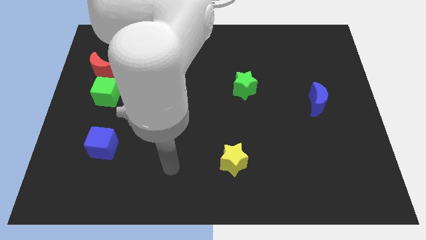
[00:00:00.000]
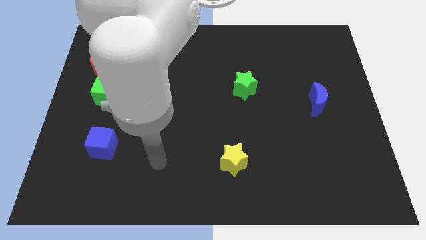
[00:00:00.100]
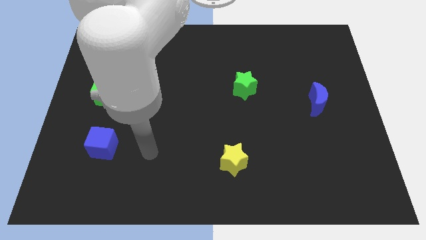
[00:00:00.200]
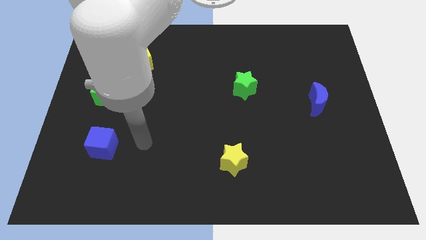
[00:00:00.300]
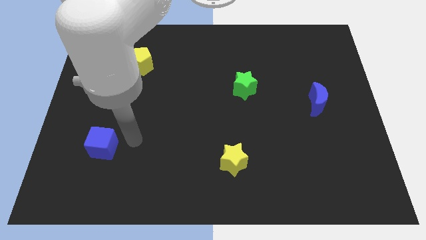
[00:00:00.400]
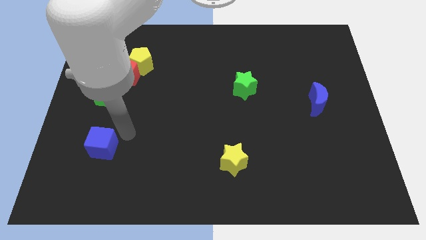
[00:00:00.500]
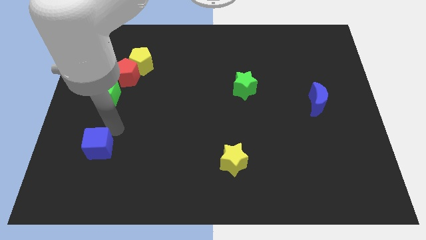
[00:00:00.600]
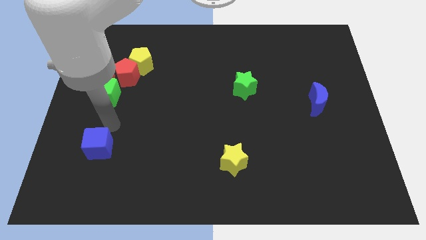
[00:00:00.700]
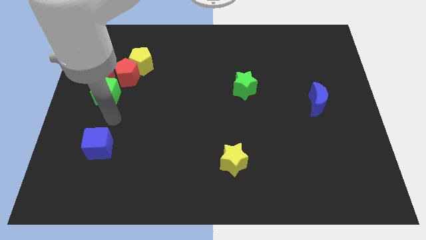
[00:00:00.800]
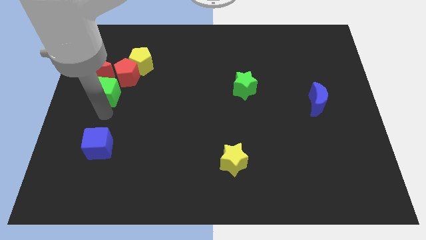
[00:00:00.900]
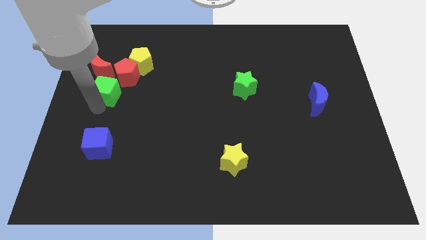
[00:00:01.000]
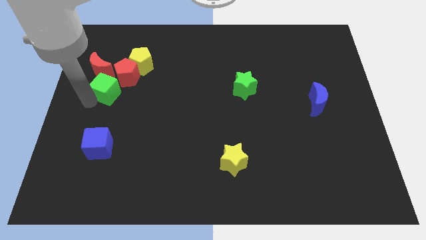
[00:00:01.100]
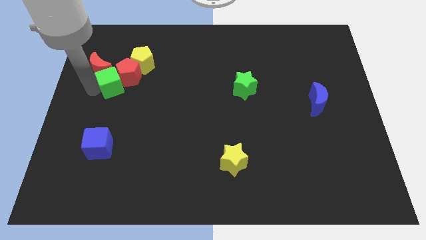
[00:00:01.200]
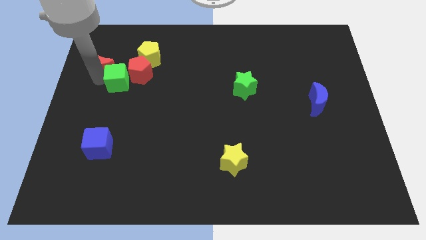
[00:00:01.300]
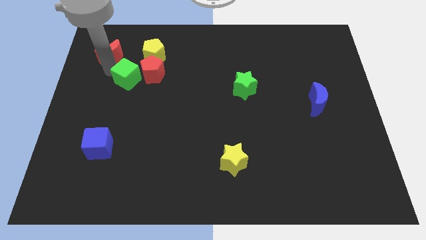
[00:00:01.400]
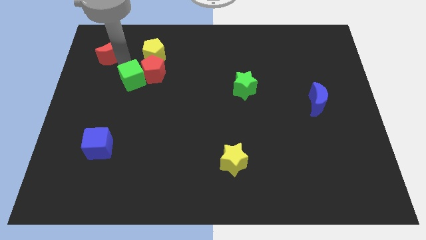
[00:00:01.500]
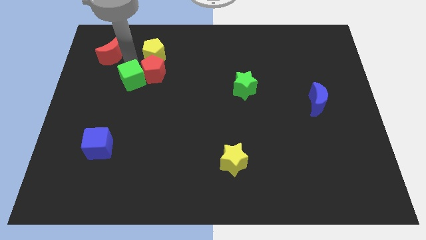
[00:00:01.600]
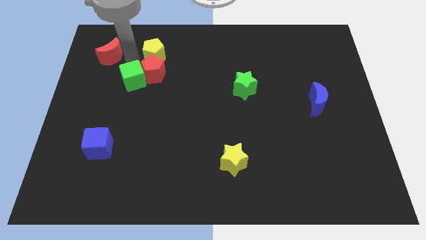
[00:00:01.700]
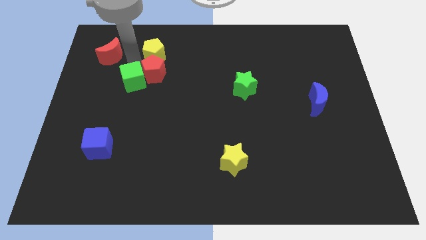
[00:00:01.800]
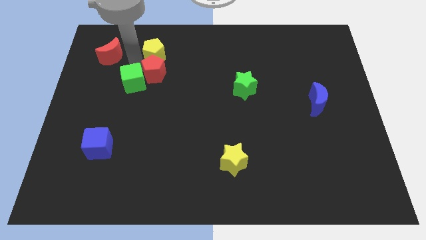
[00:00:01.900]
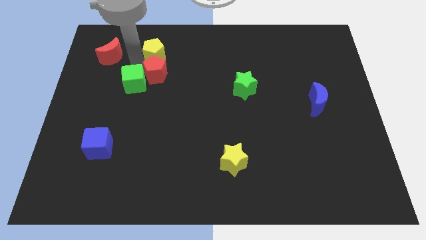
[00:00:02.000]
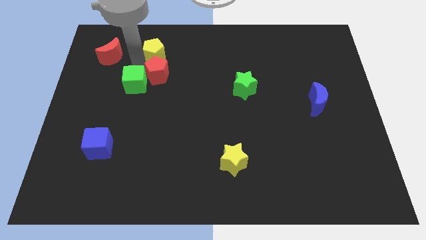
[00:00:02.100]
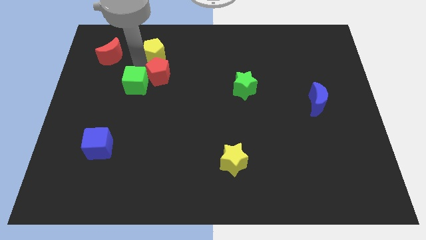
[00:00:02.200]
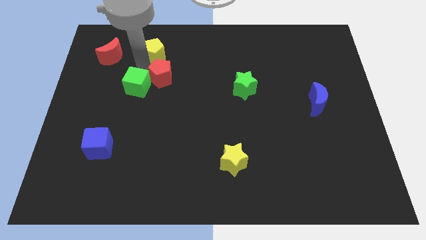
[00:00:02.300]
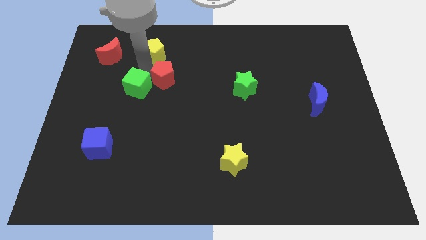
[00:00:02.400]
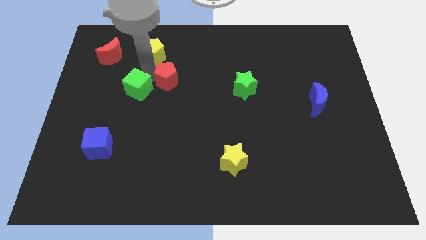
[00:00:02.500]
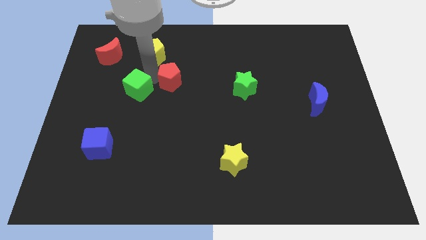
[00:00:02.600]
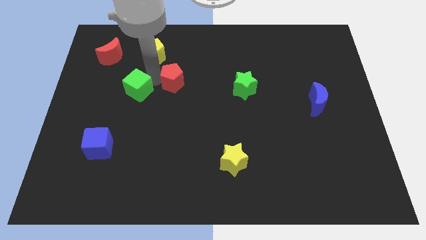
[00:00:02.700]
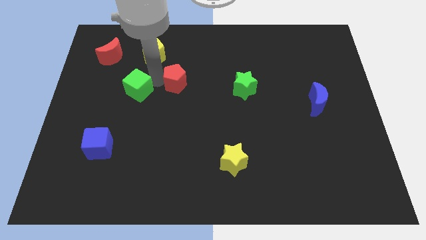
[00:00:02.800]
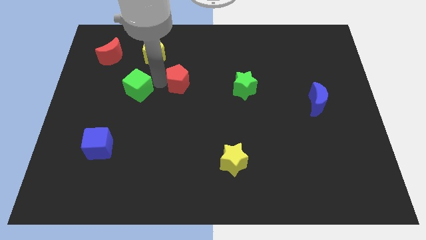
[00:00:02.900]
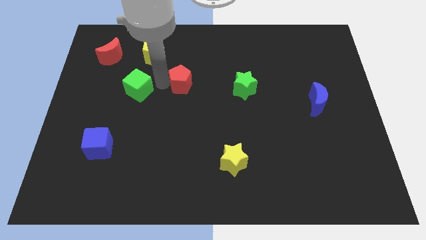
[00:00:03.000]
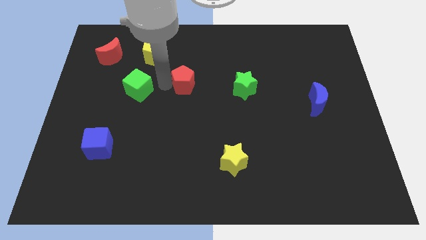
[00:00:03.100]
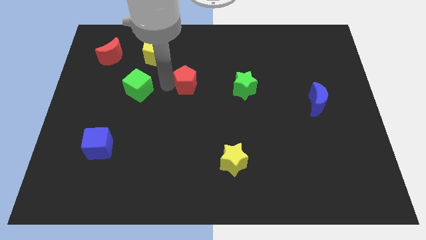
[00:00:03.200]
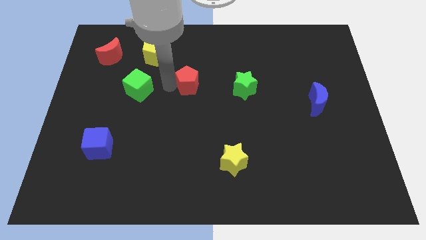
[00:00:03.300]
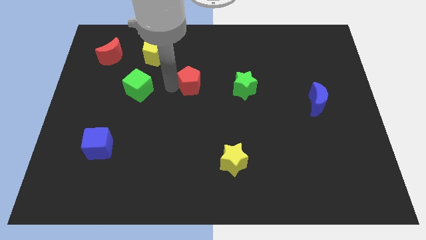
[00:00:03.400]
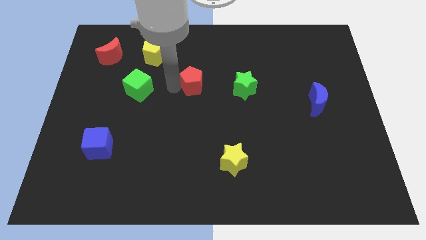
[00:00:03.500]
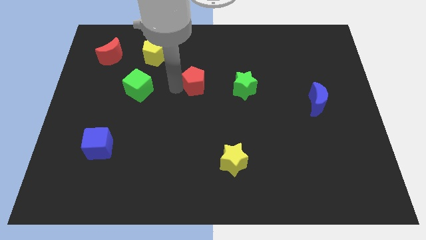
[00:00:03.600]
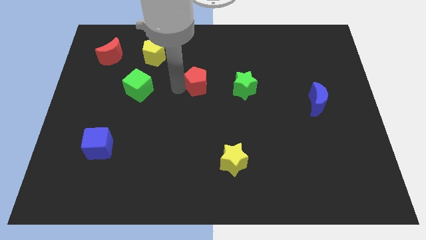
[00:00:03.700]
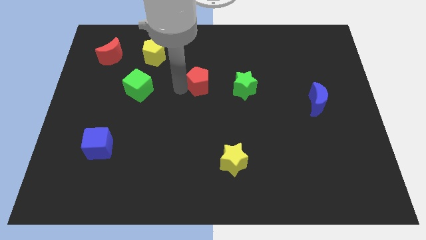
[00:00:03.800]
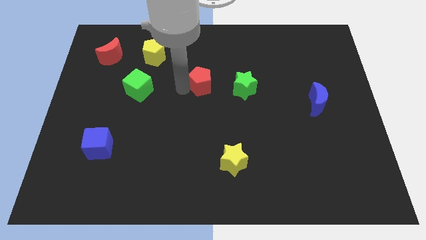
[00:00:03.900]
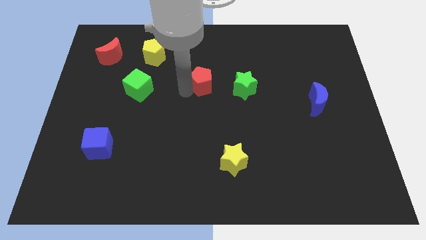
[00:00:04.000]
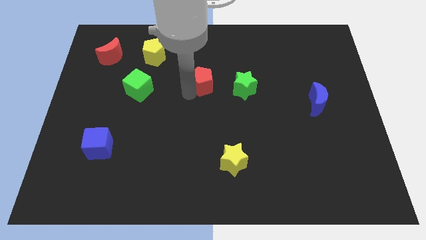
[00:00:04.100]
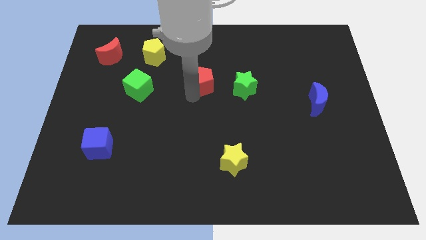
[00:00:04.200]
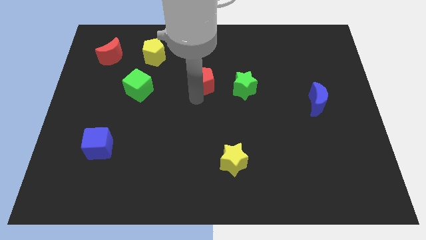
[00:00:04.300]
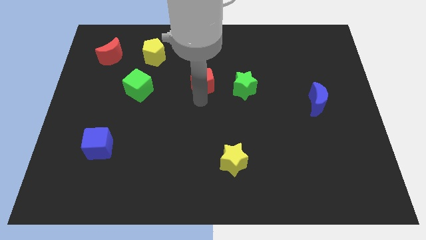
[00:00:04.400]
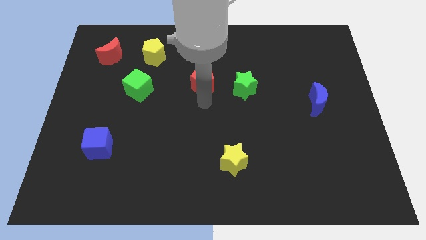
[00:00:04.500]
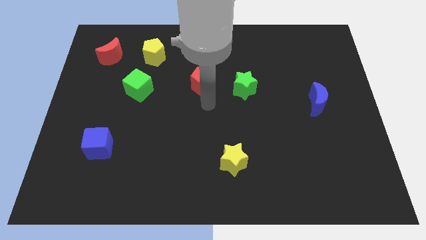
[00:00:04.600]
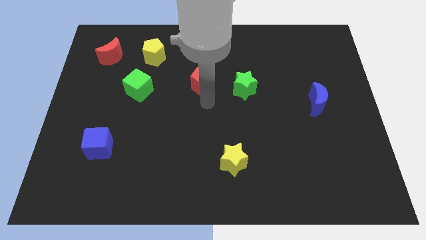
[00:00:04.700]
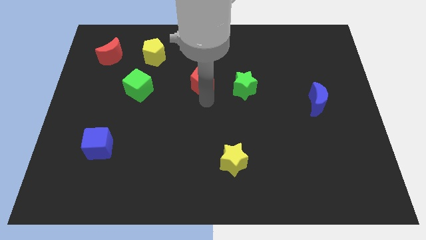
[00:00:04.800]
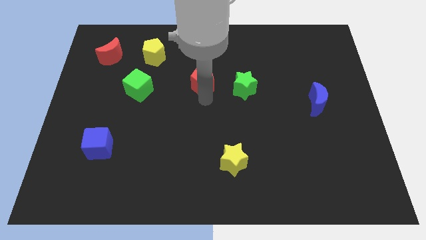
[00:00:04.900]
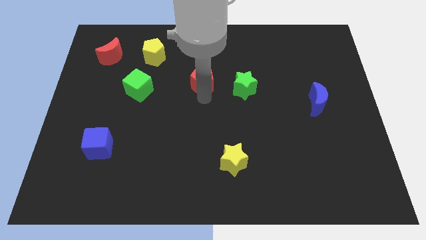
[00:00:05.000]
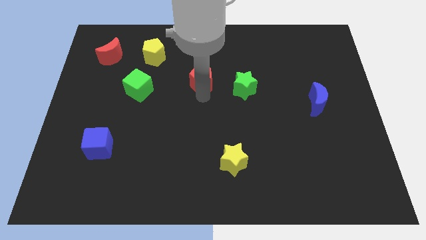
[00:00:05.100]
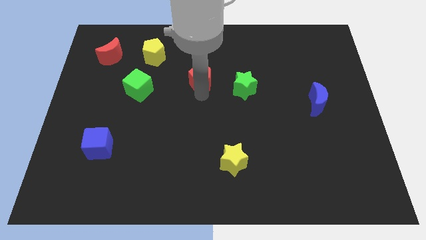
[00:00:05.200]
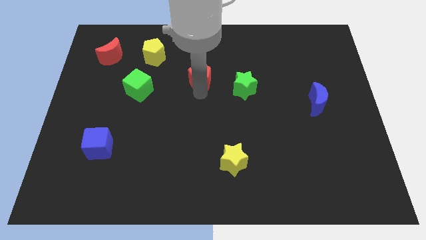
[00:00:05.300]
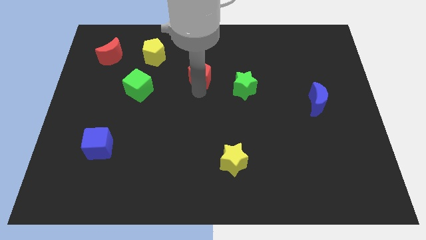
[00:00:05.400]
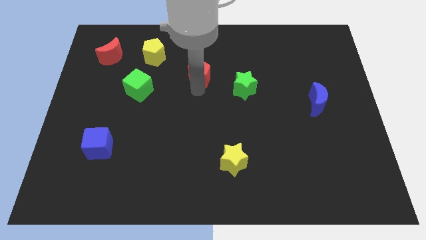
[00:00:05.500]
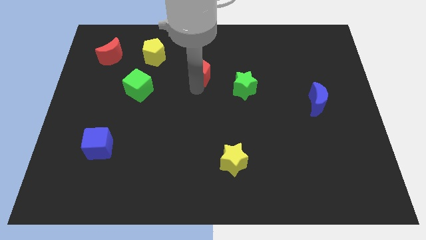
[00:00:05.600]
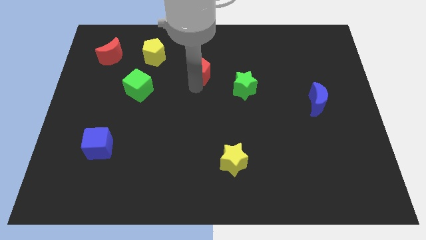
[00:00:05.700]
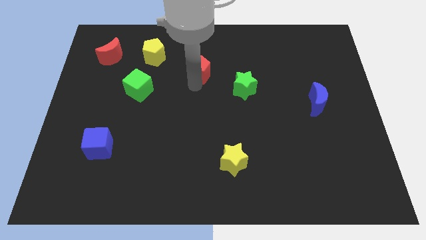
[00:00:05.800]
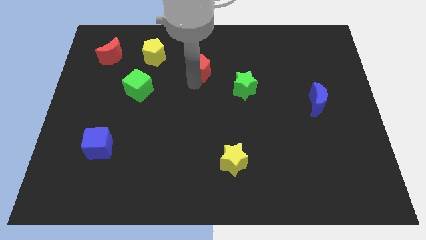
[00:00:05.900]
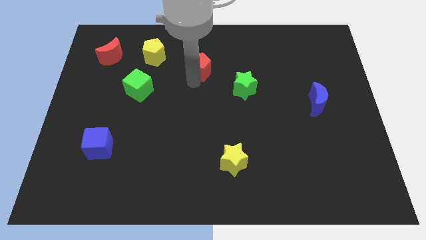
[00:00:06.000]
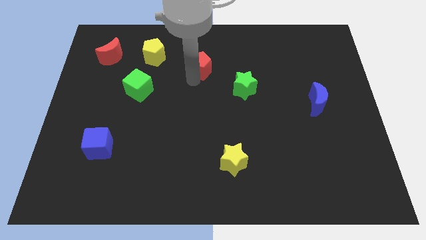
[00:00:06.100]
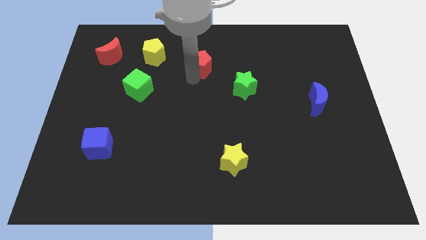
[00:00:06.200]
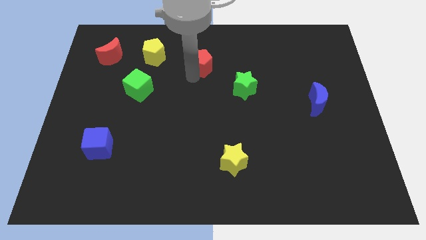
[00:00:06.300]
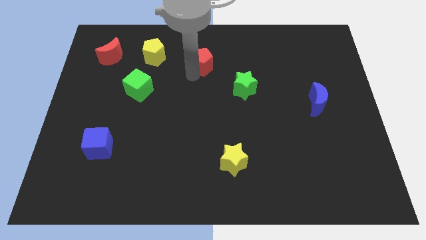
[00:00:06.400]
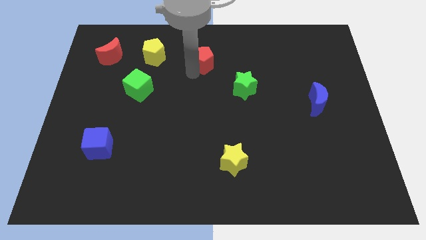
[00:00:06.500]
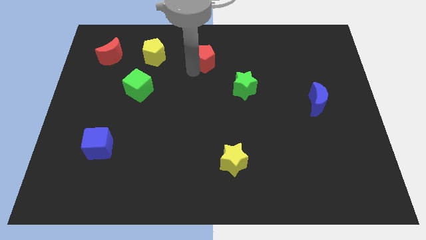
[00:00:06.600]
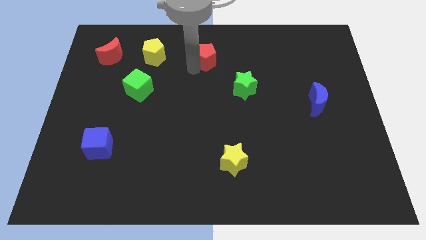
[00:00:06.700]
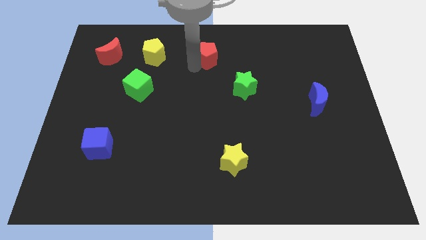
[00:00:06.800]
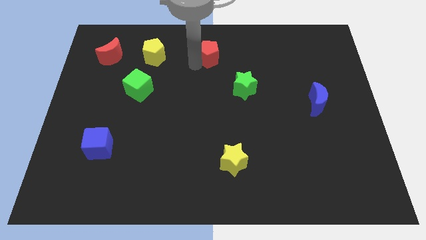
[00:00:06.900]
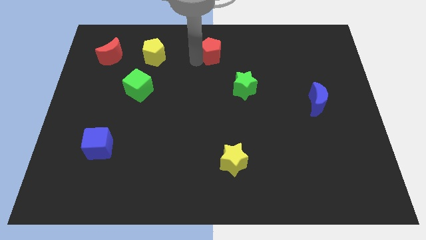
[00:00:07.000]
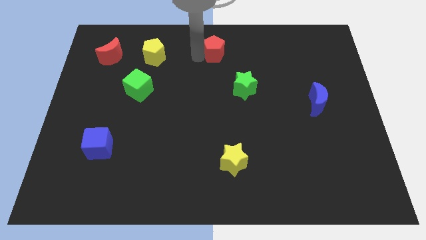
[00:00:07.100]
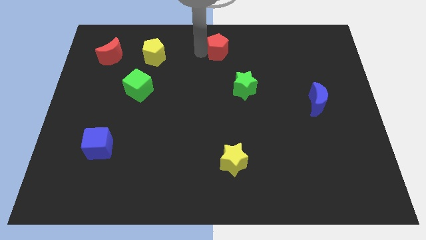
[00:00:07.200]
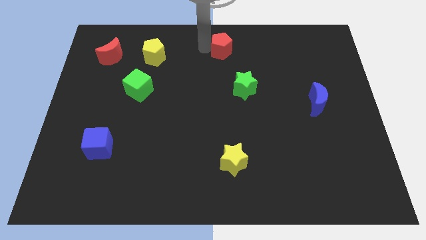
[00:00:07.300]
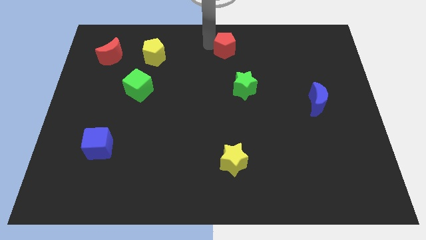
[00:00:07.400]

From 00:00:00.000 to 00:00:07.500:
move the red pentagon right
